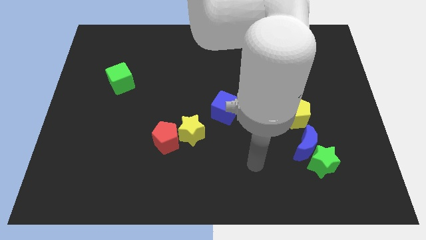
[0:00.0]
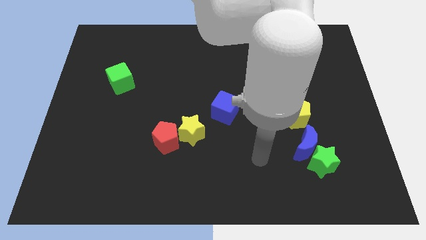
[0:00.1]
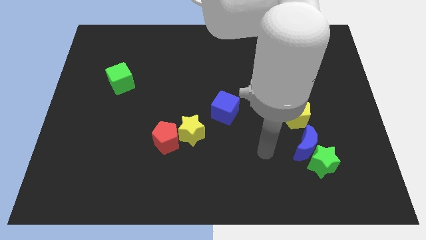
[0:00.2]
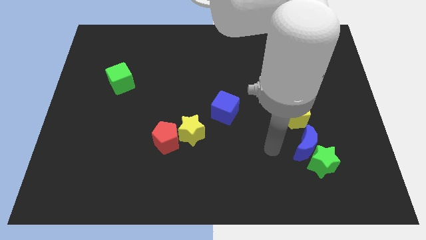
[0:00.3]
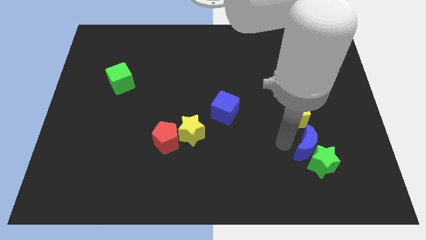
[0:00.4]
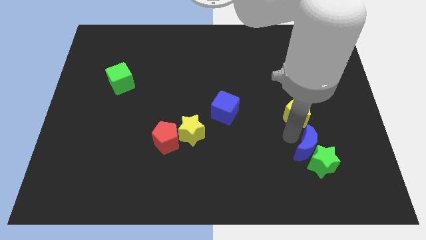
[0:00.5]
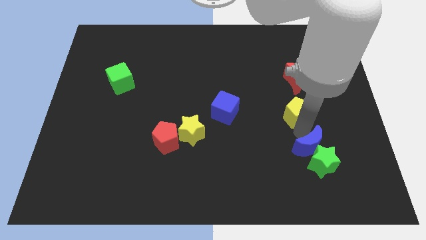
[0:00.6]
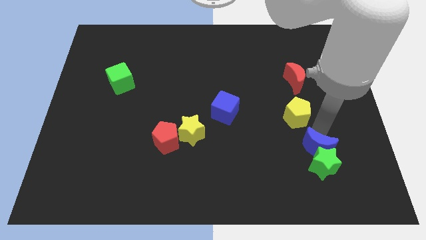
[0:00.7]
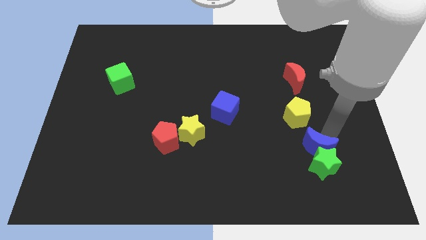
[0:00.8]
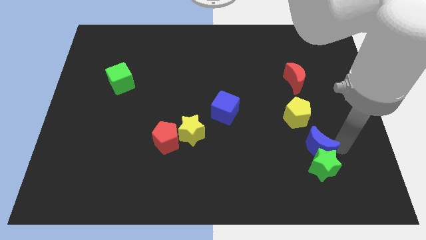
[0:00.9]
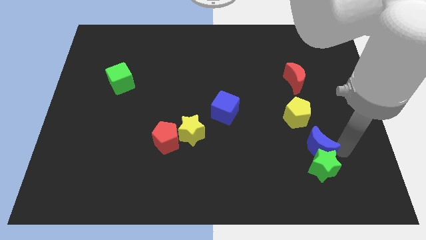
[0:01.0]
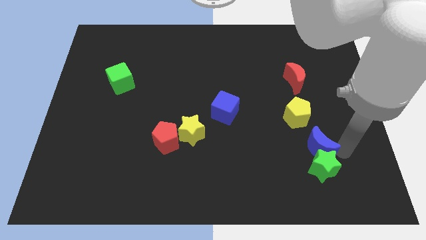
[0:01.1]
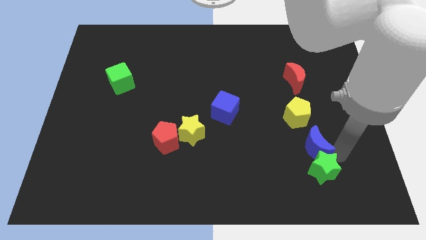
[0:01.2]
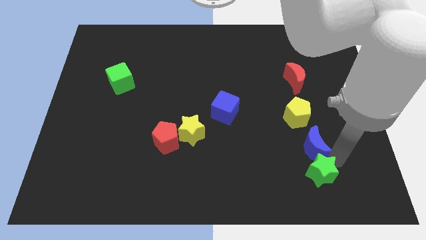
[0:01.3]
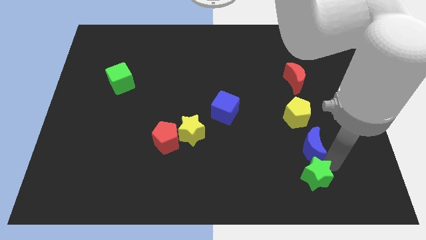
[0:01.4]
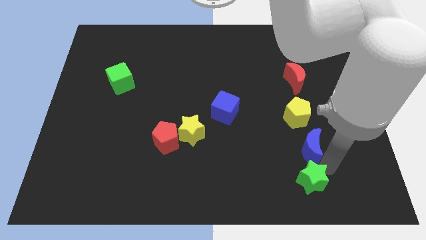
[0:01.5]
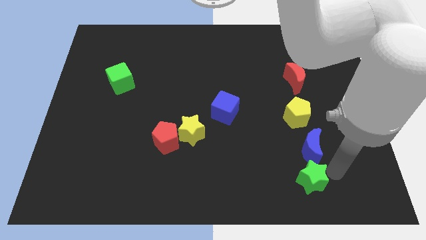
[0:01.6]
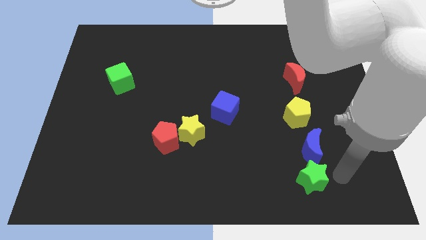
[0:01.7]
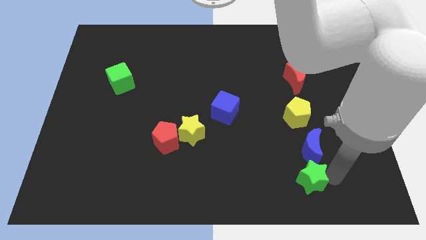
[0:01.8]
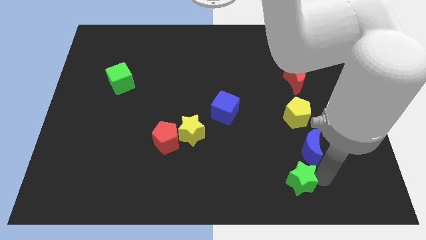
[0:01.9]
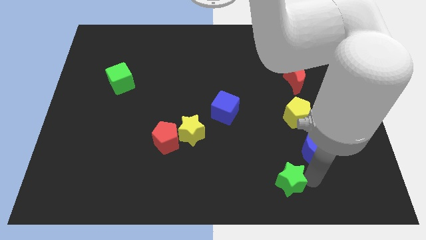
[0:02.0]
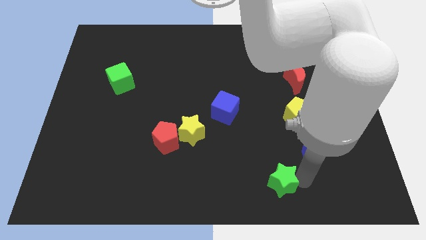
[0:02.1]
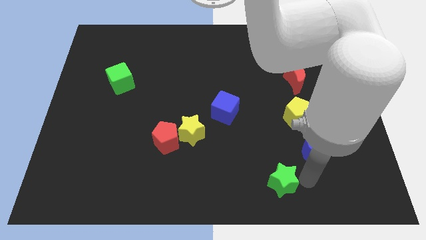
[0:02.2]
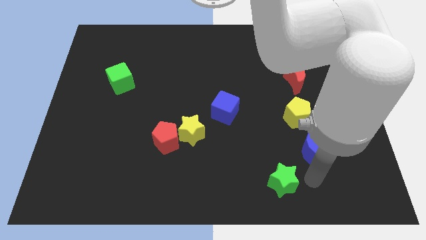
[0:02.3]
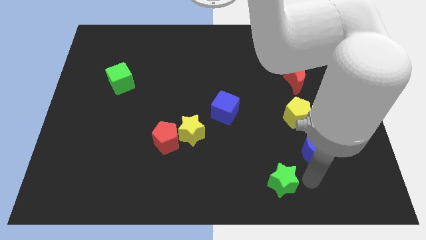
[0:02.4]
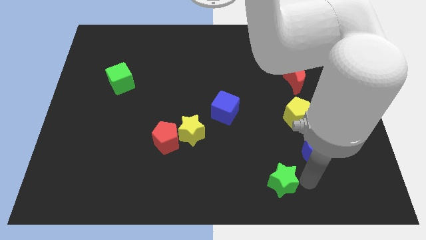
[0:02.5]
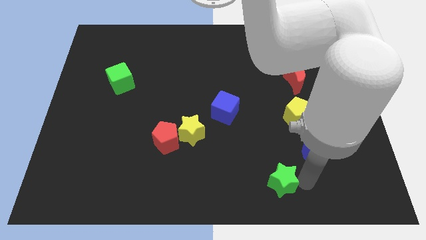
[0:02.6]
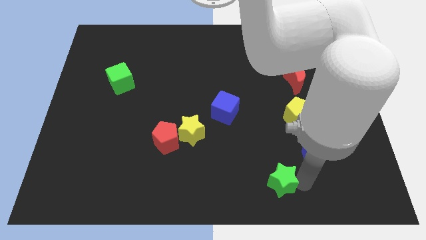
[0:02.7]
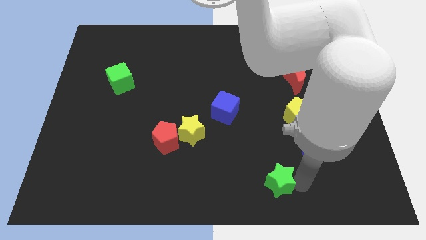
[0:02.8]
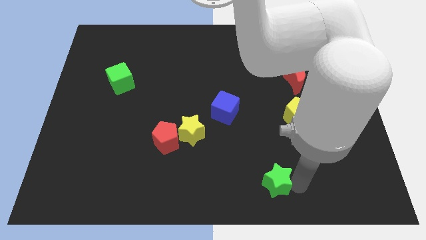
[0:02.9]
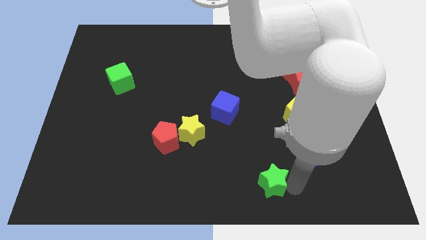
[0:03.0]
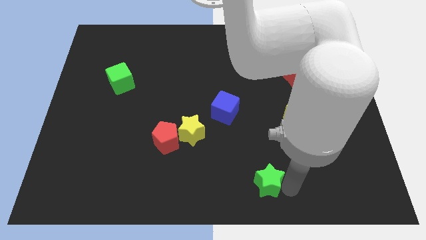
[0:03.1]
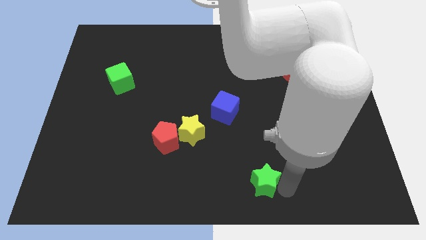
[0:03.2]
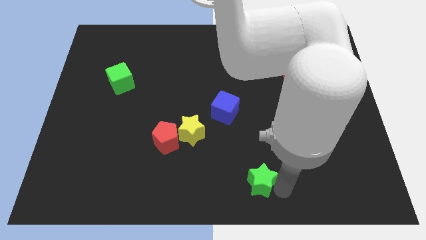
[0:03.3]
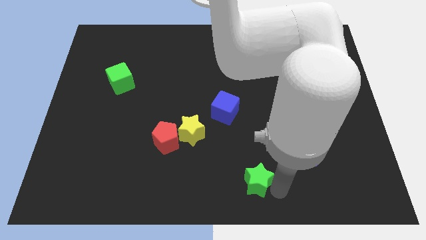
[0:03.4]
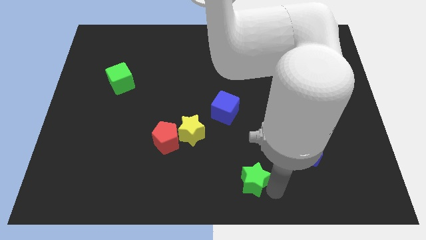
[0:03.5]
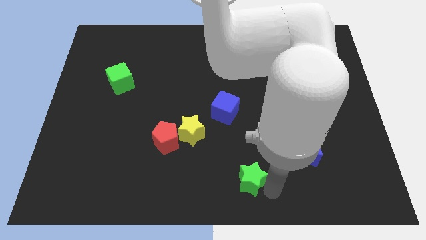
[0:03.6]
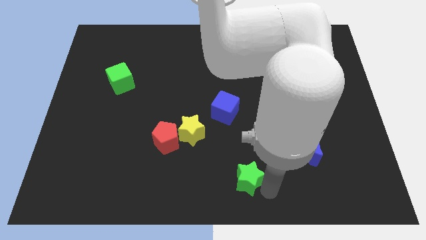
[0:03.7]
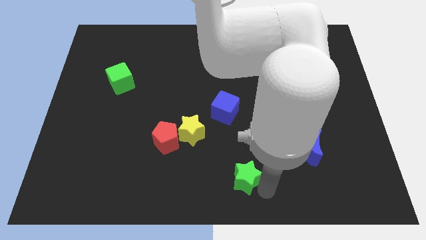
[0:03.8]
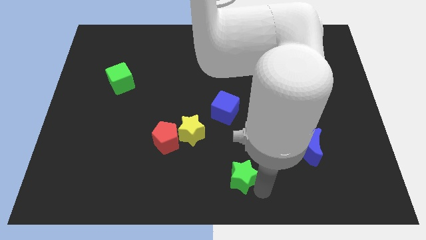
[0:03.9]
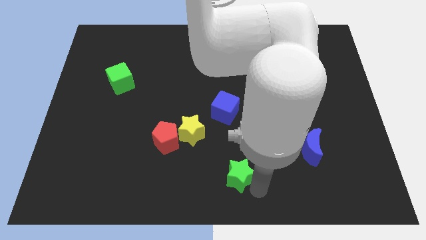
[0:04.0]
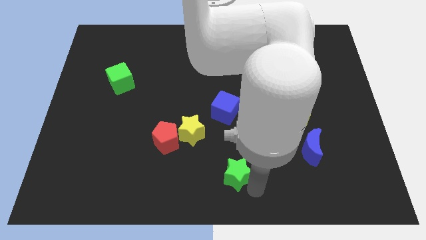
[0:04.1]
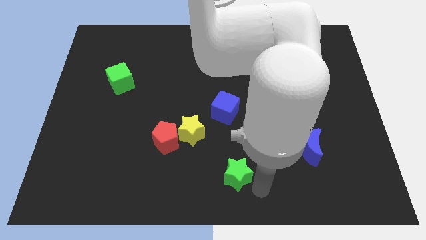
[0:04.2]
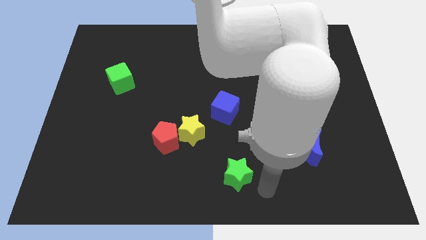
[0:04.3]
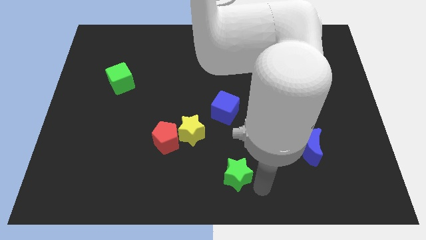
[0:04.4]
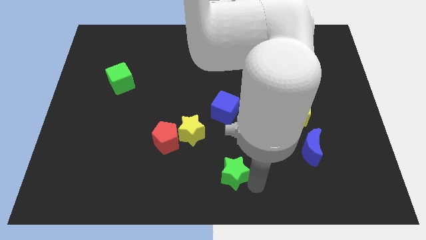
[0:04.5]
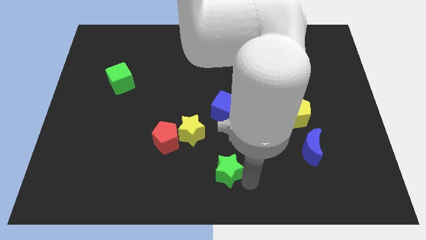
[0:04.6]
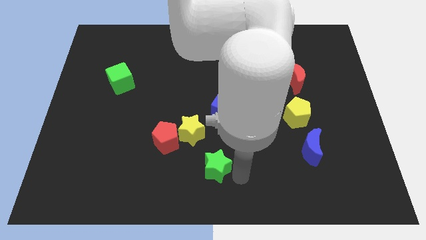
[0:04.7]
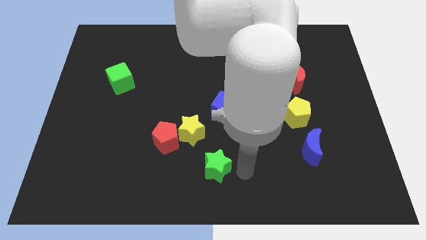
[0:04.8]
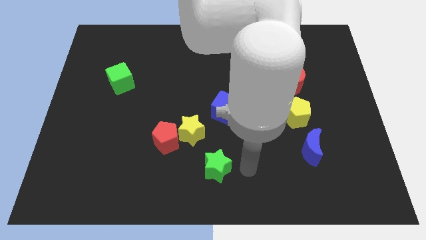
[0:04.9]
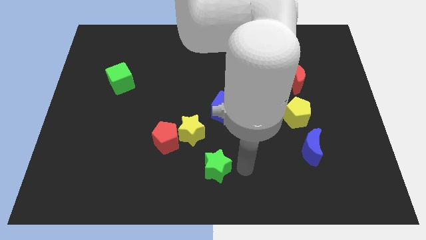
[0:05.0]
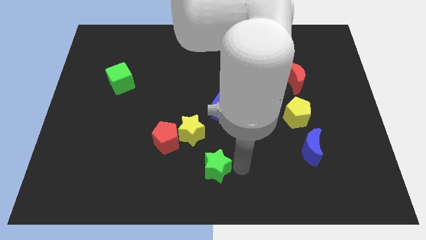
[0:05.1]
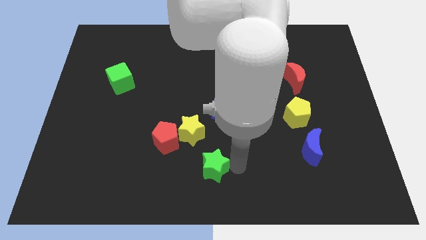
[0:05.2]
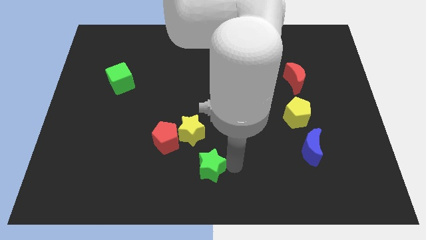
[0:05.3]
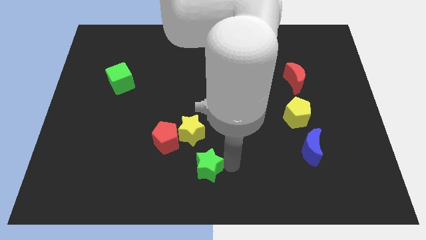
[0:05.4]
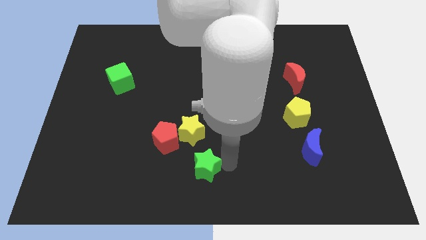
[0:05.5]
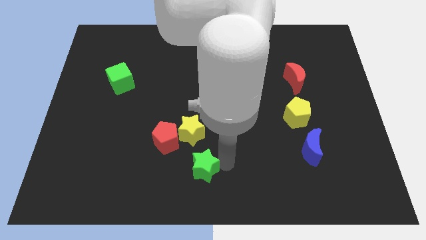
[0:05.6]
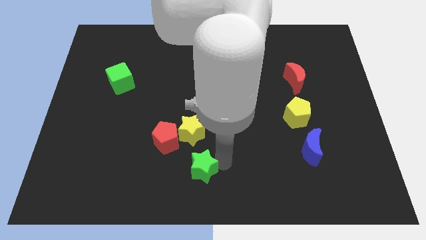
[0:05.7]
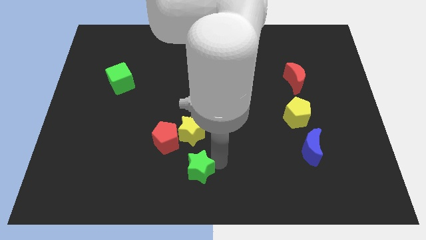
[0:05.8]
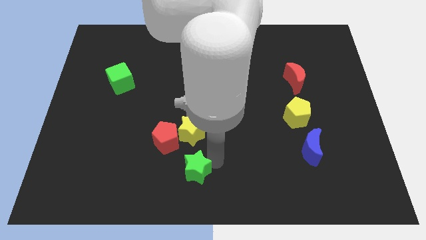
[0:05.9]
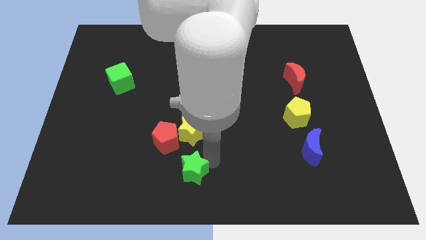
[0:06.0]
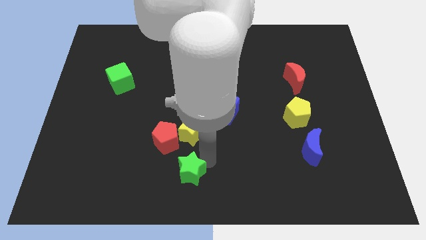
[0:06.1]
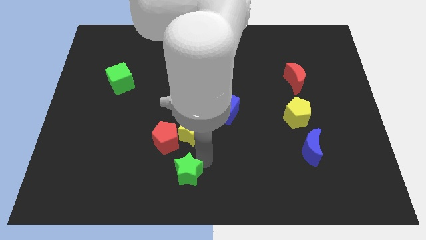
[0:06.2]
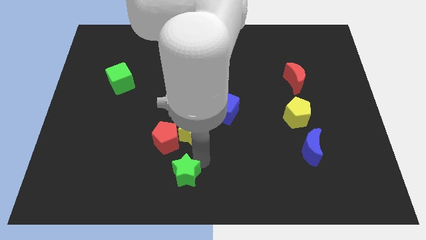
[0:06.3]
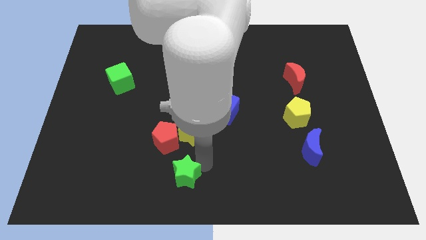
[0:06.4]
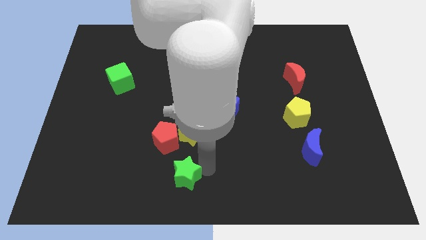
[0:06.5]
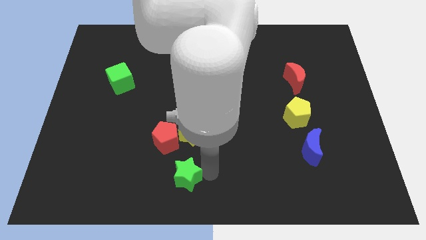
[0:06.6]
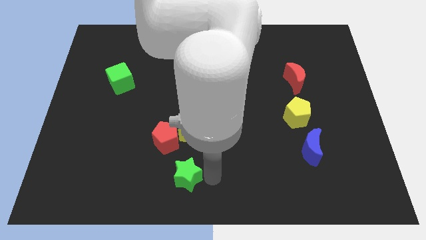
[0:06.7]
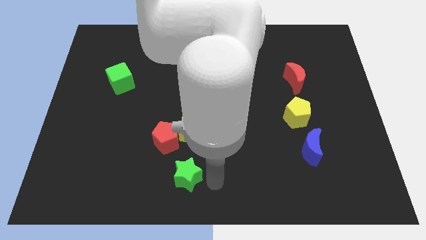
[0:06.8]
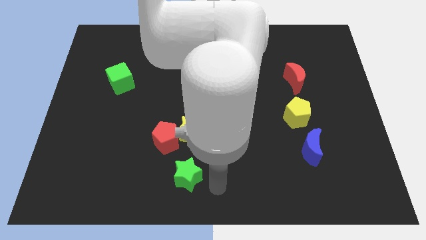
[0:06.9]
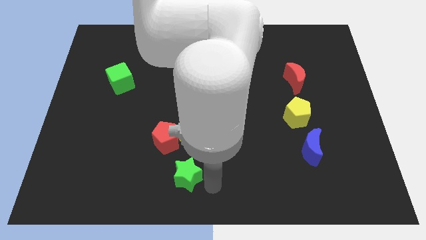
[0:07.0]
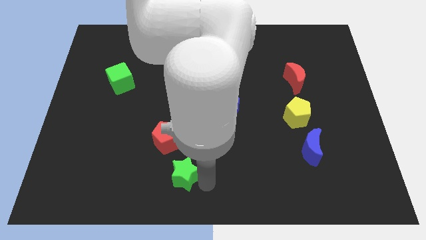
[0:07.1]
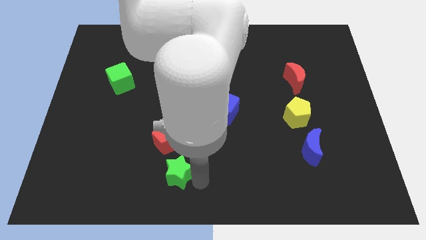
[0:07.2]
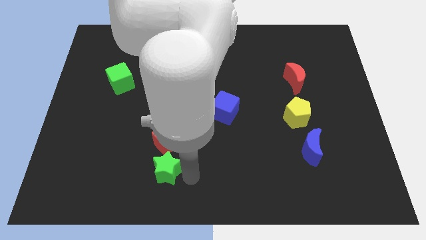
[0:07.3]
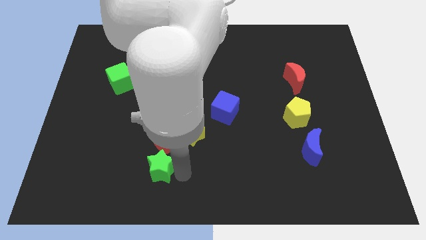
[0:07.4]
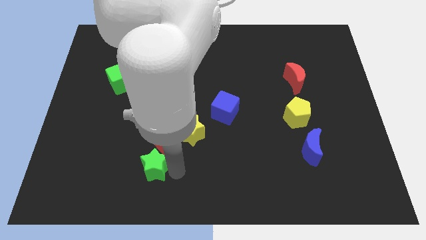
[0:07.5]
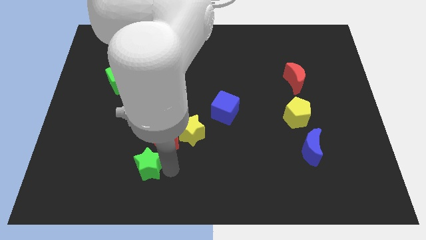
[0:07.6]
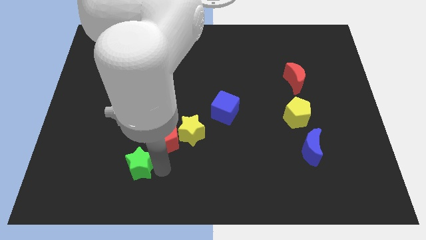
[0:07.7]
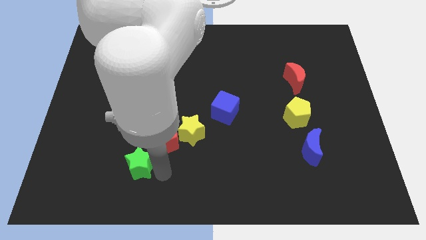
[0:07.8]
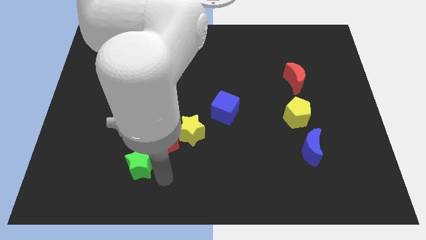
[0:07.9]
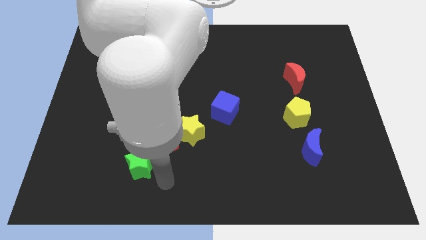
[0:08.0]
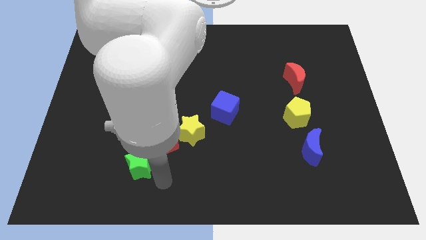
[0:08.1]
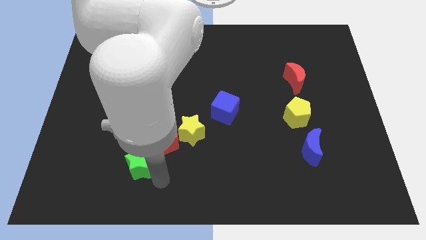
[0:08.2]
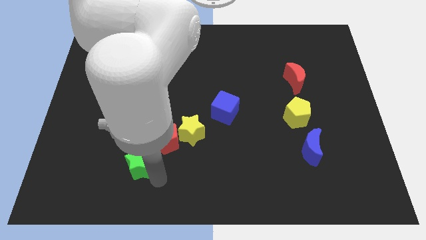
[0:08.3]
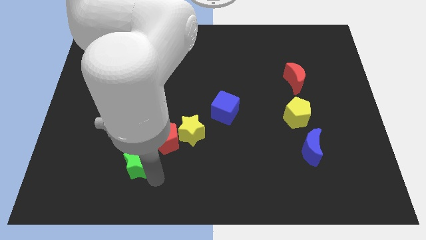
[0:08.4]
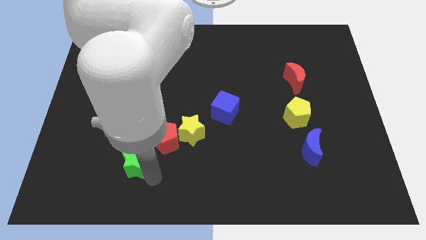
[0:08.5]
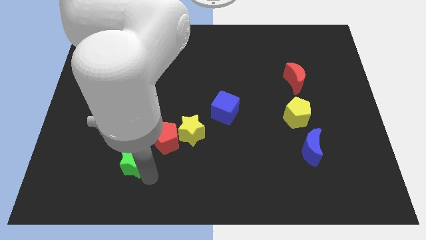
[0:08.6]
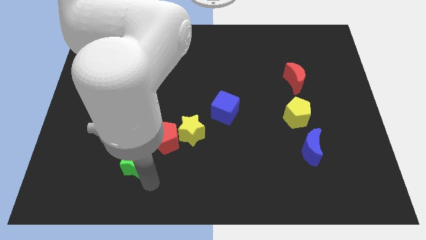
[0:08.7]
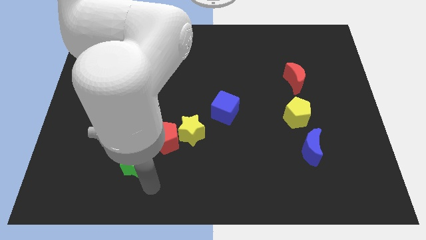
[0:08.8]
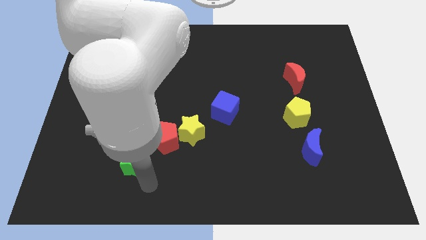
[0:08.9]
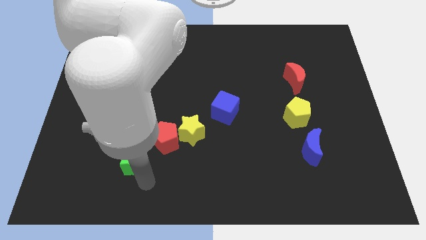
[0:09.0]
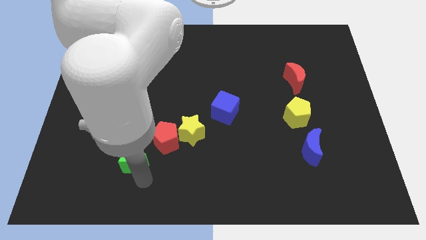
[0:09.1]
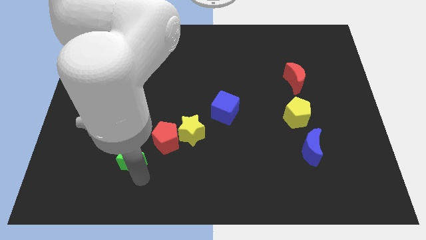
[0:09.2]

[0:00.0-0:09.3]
push the green star just left of the red pentagon
